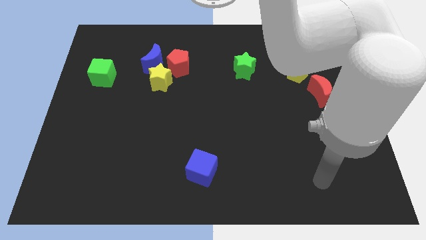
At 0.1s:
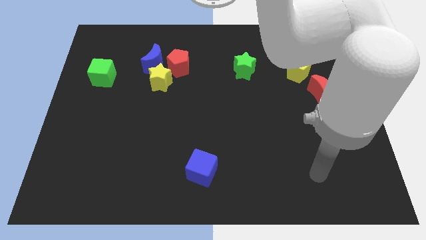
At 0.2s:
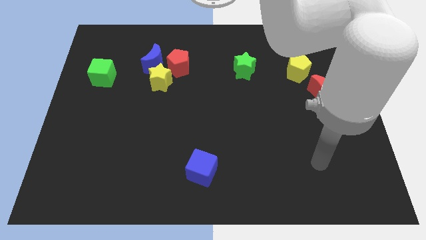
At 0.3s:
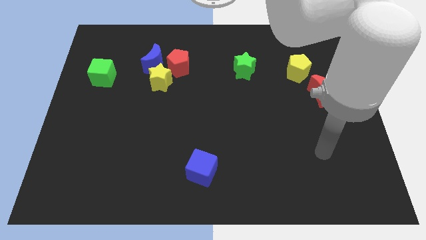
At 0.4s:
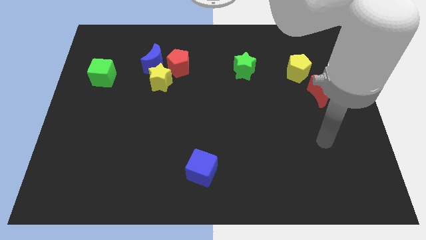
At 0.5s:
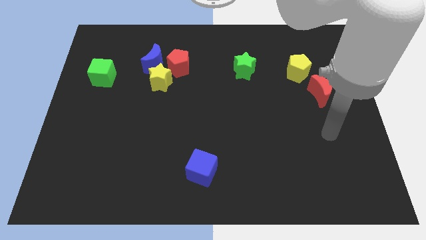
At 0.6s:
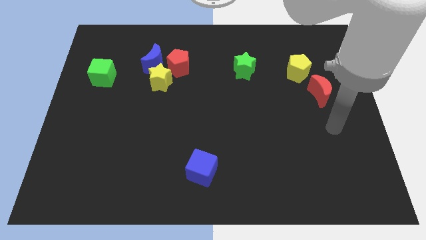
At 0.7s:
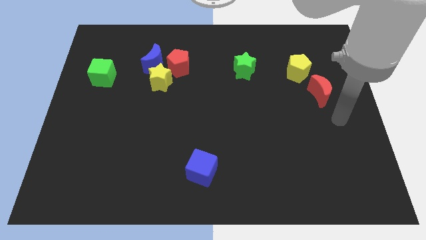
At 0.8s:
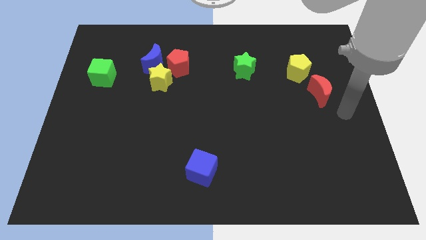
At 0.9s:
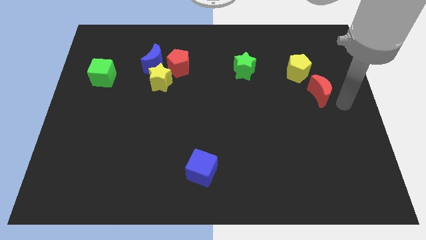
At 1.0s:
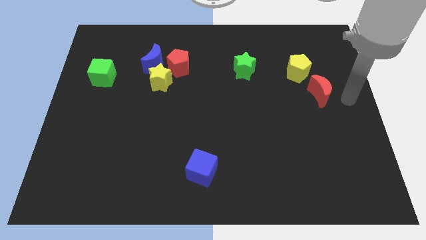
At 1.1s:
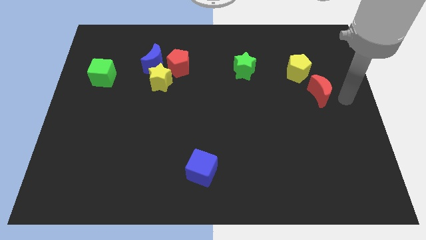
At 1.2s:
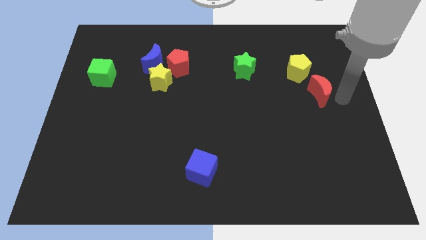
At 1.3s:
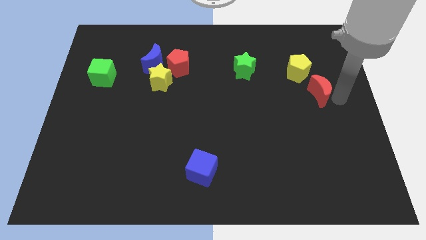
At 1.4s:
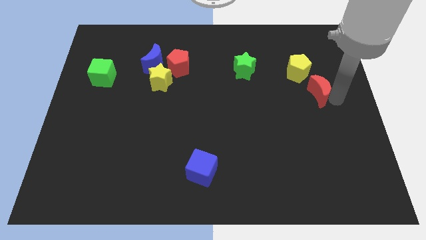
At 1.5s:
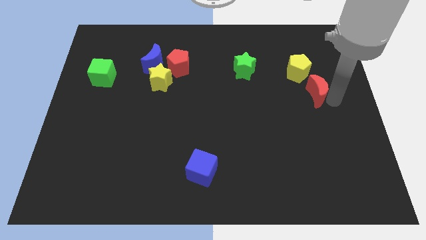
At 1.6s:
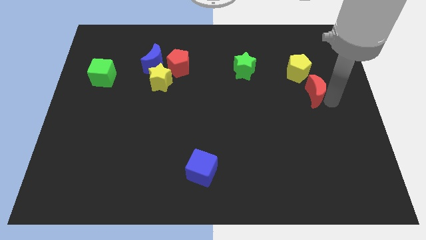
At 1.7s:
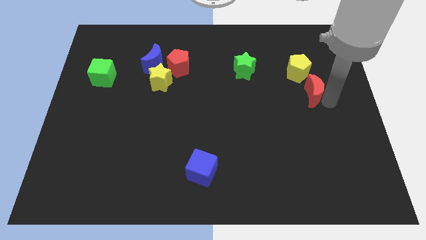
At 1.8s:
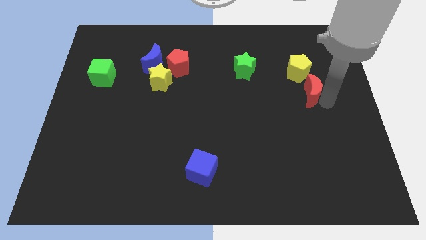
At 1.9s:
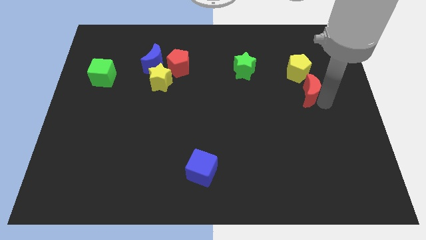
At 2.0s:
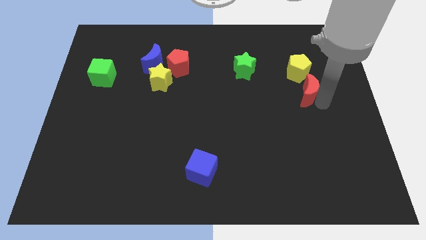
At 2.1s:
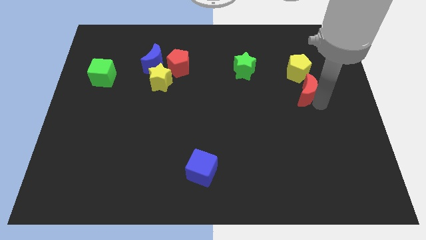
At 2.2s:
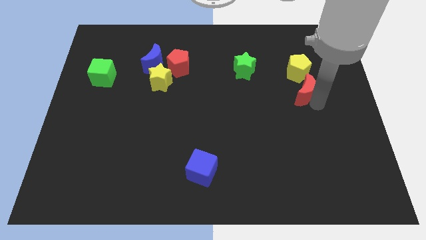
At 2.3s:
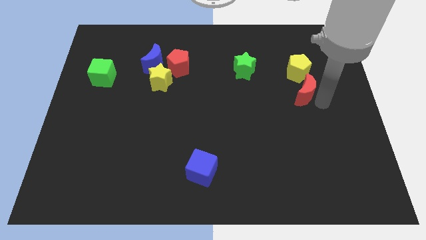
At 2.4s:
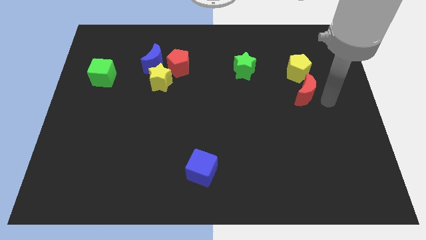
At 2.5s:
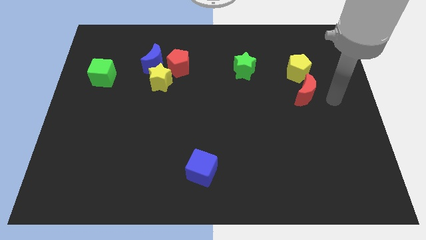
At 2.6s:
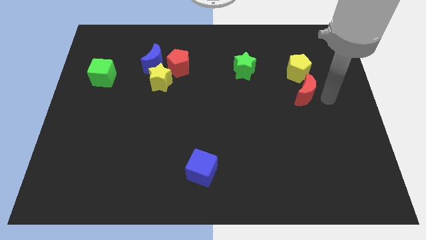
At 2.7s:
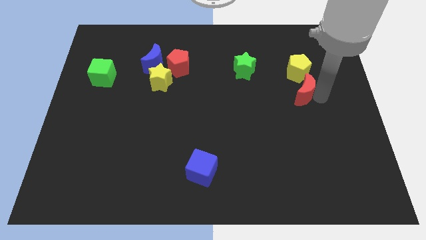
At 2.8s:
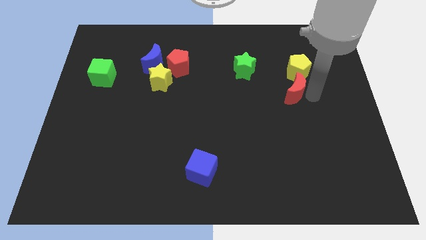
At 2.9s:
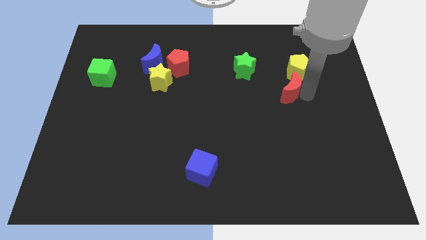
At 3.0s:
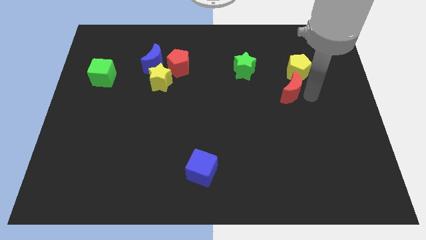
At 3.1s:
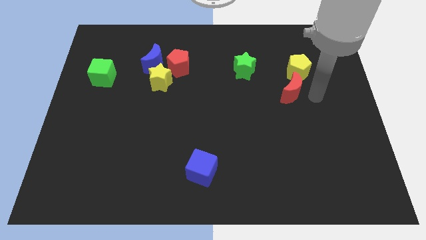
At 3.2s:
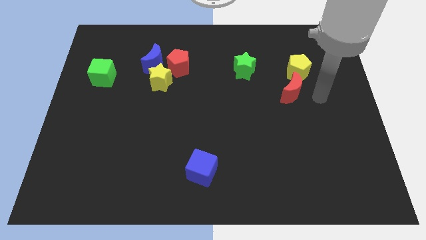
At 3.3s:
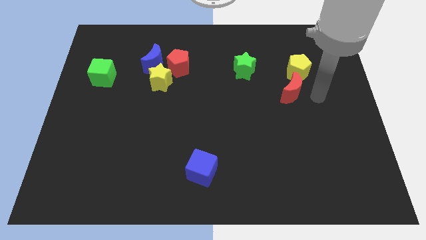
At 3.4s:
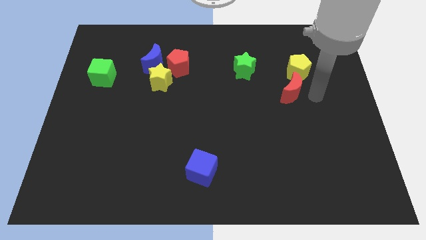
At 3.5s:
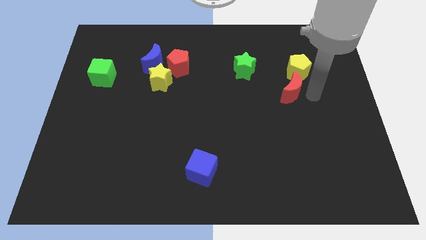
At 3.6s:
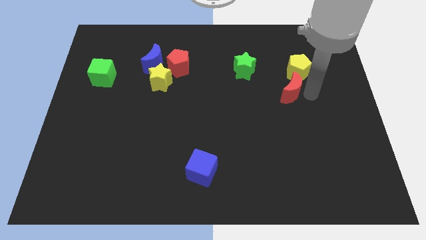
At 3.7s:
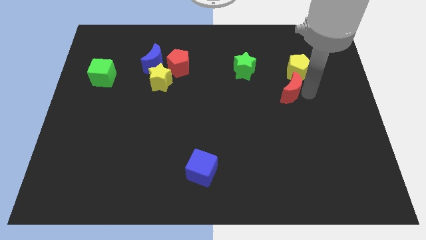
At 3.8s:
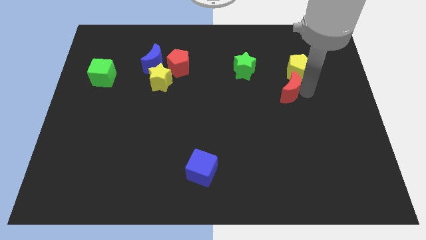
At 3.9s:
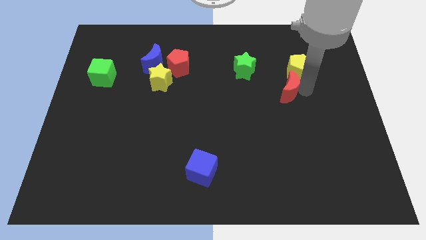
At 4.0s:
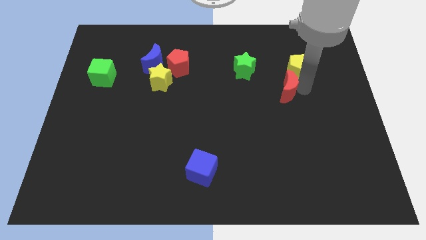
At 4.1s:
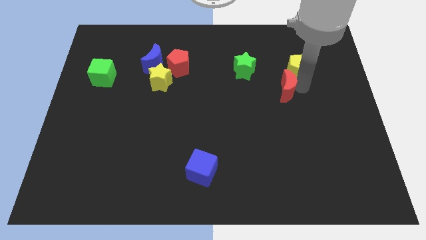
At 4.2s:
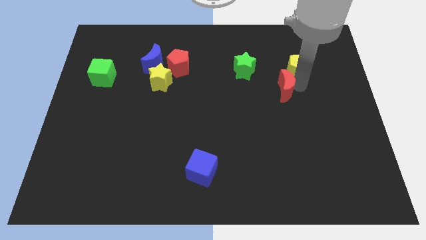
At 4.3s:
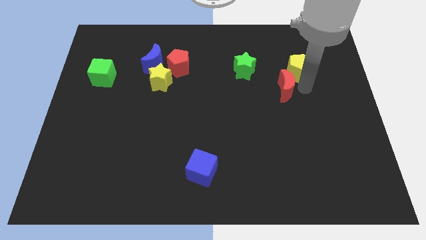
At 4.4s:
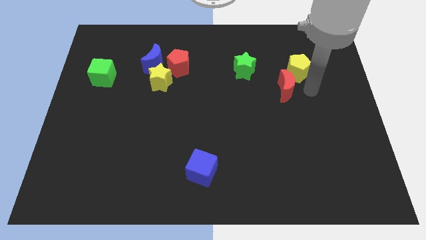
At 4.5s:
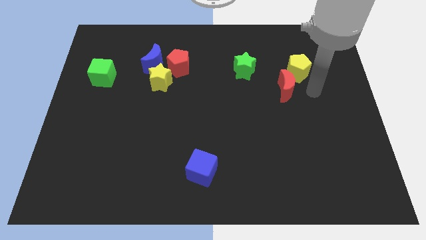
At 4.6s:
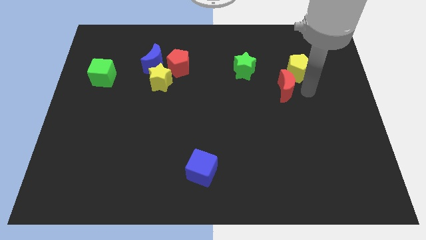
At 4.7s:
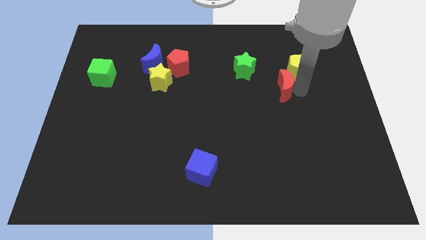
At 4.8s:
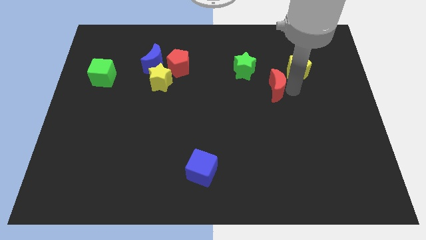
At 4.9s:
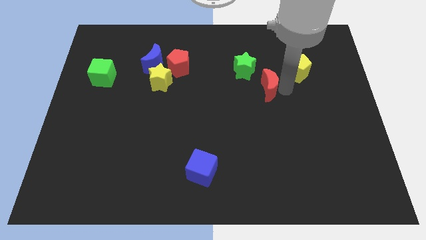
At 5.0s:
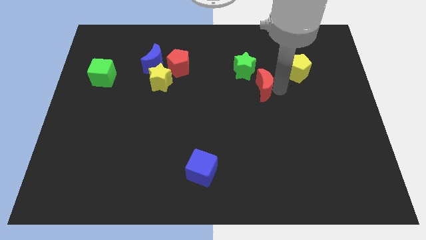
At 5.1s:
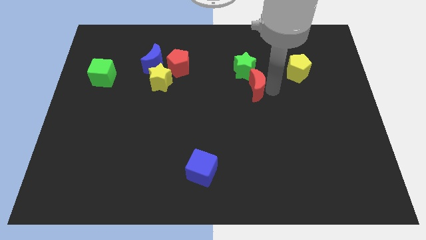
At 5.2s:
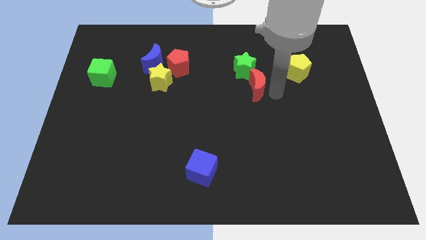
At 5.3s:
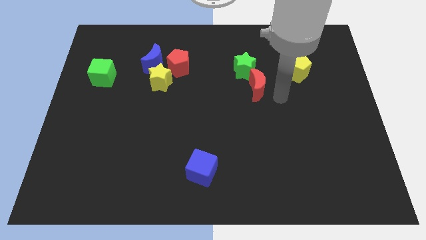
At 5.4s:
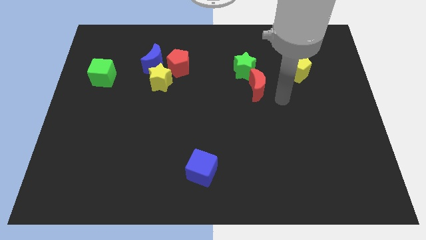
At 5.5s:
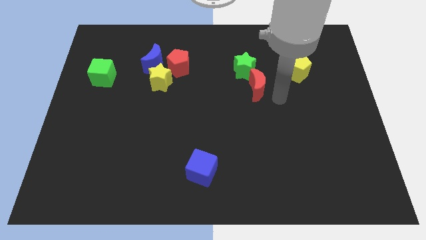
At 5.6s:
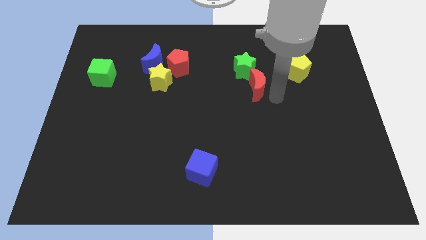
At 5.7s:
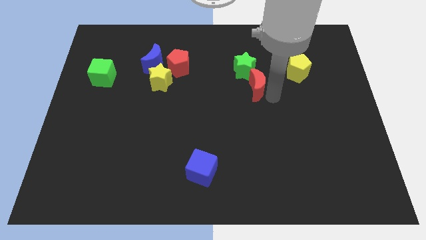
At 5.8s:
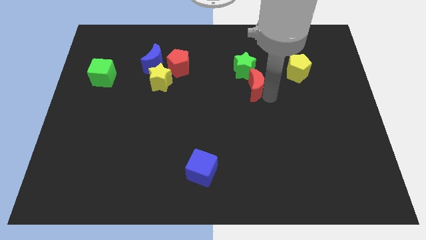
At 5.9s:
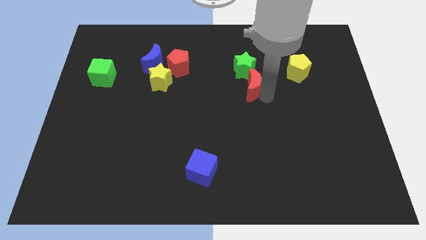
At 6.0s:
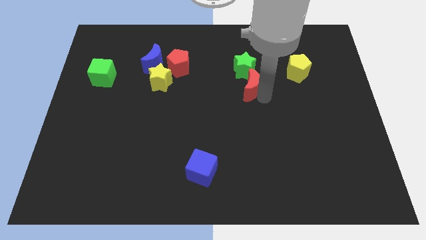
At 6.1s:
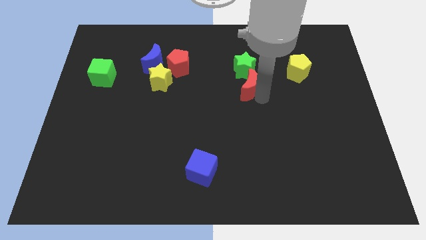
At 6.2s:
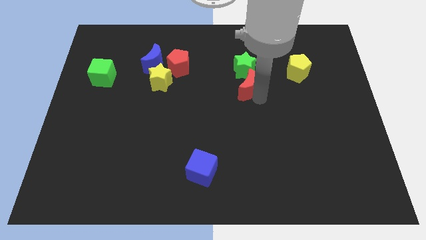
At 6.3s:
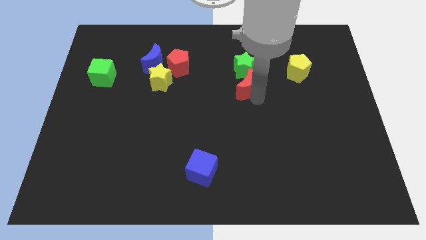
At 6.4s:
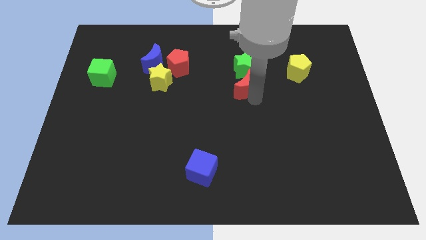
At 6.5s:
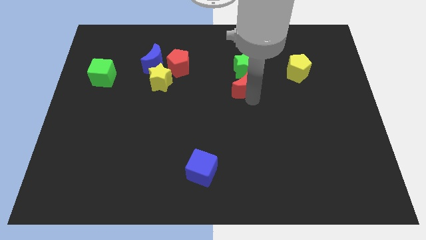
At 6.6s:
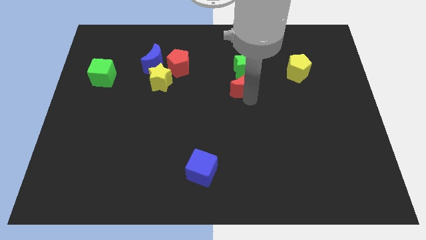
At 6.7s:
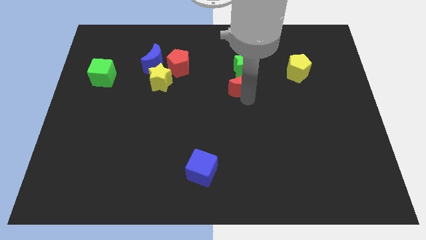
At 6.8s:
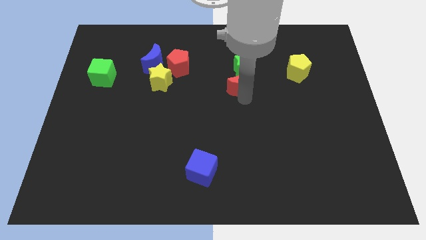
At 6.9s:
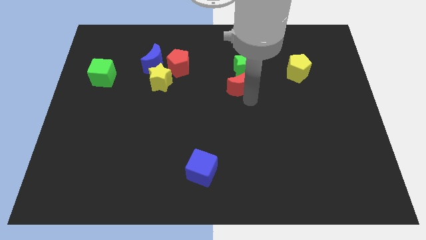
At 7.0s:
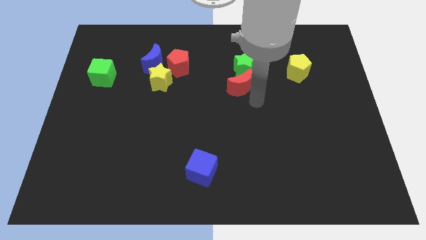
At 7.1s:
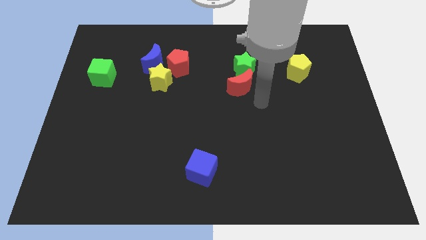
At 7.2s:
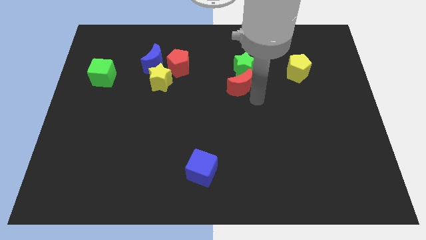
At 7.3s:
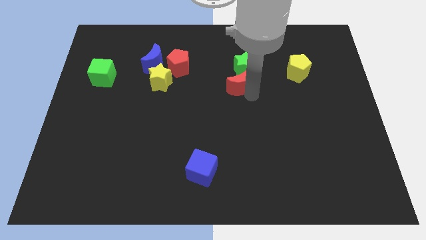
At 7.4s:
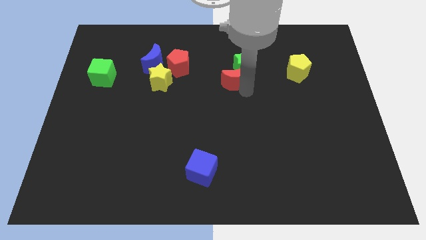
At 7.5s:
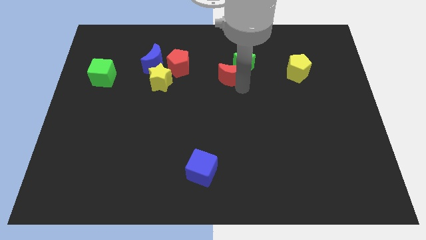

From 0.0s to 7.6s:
put the red moon to the left side of the green star
